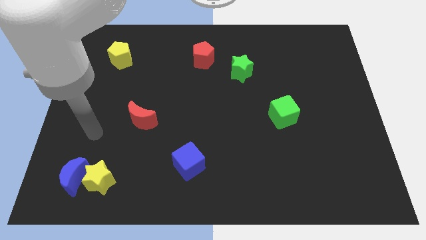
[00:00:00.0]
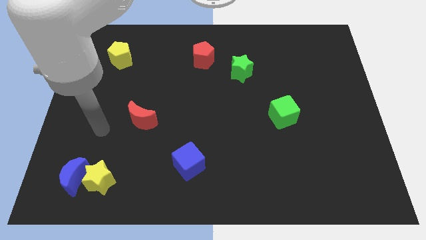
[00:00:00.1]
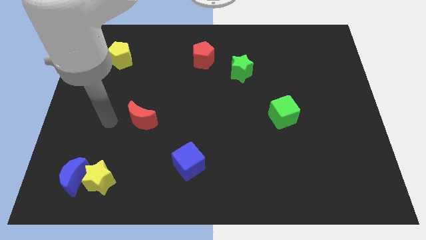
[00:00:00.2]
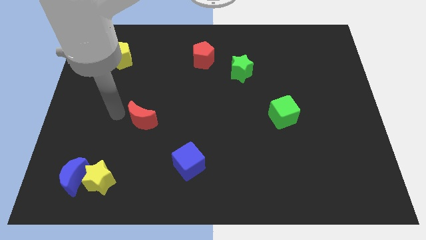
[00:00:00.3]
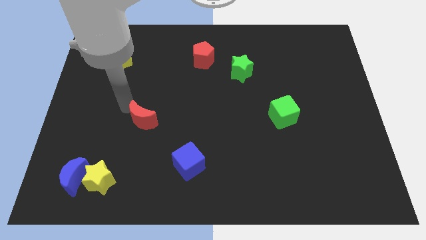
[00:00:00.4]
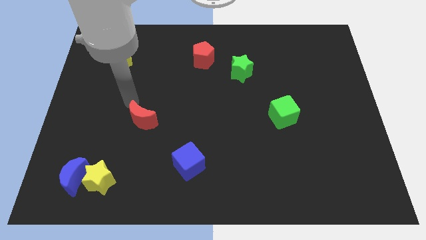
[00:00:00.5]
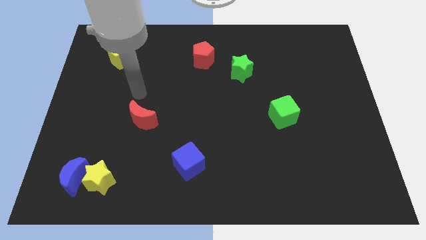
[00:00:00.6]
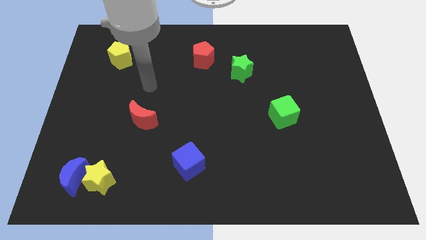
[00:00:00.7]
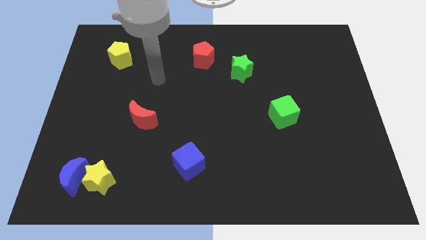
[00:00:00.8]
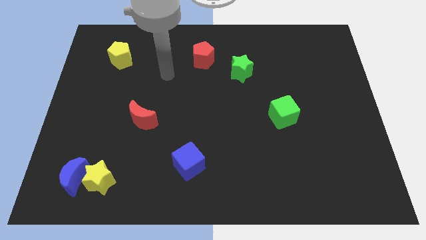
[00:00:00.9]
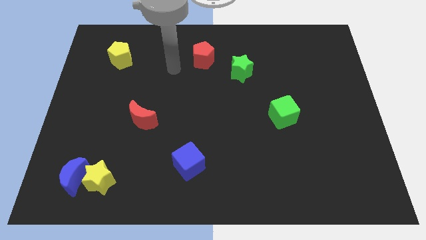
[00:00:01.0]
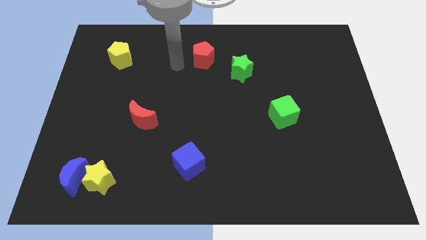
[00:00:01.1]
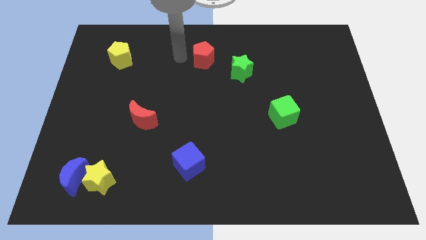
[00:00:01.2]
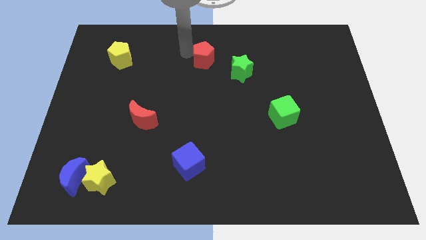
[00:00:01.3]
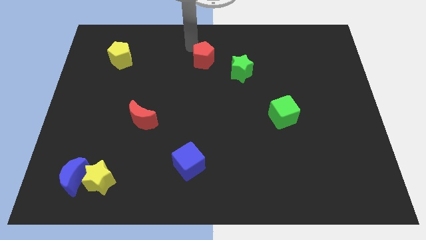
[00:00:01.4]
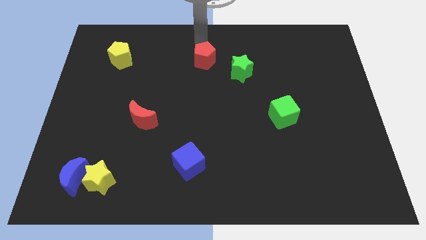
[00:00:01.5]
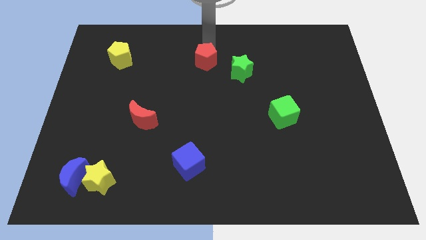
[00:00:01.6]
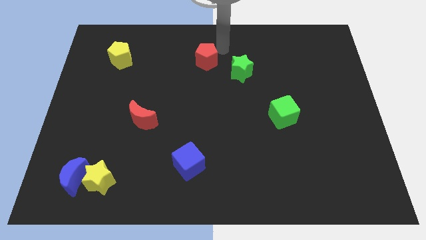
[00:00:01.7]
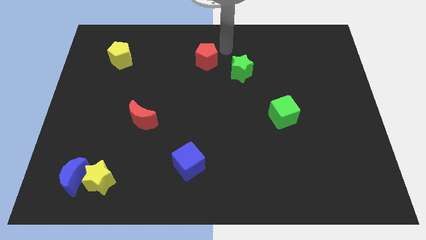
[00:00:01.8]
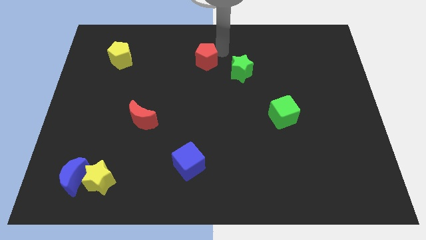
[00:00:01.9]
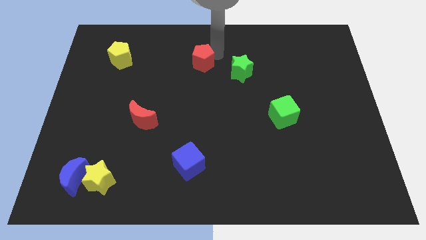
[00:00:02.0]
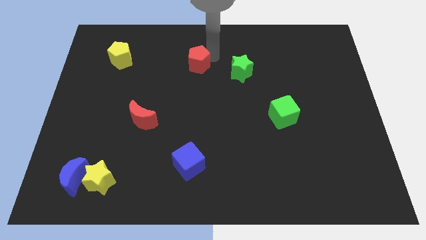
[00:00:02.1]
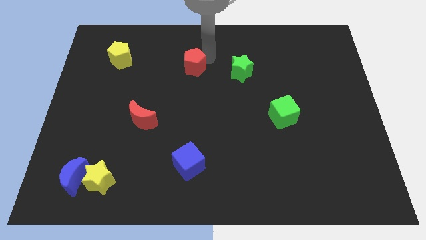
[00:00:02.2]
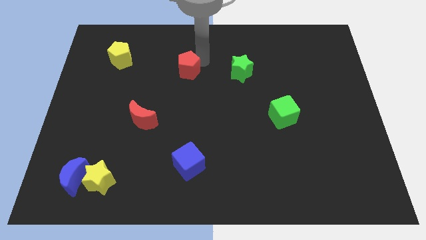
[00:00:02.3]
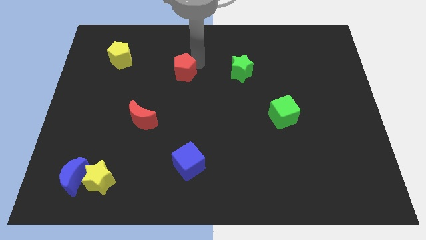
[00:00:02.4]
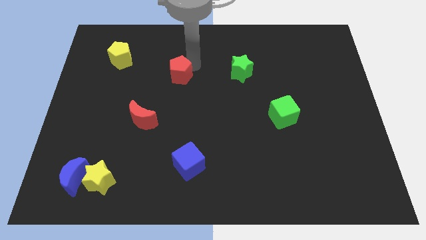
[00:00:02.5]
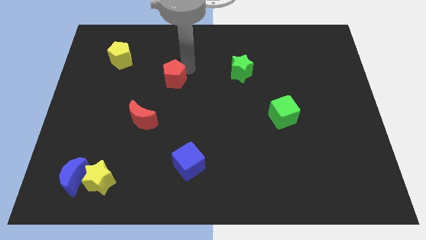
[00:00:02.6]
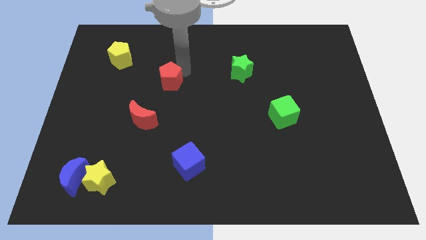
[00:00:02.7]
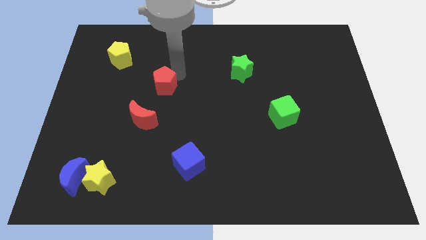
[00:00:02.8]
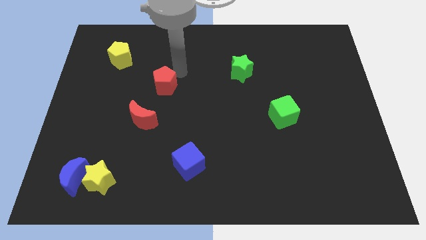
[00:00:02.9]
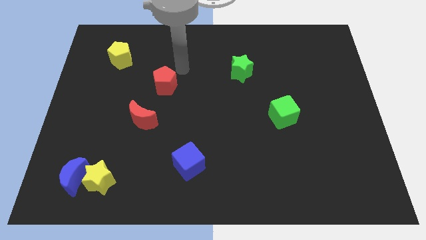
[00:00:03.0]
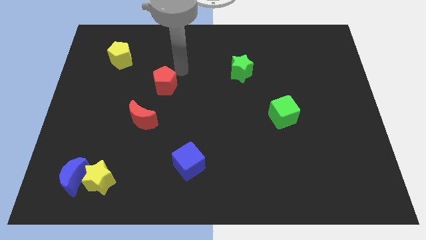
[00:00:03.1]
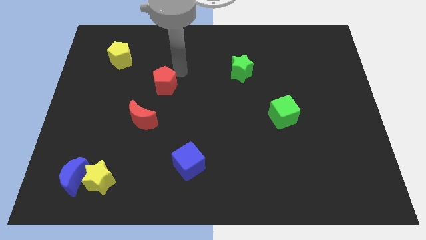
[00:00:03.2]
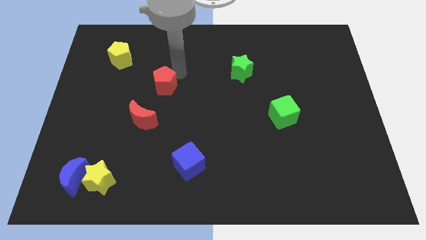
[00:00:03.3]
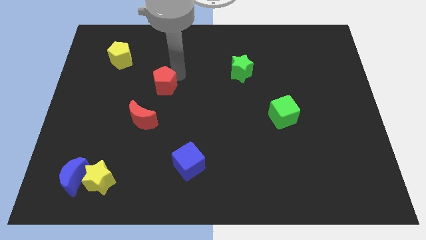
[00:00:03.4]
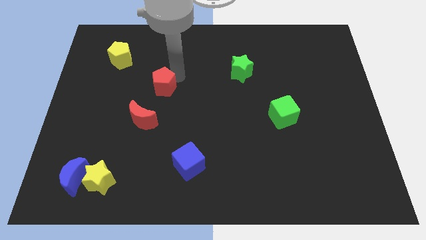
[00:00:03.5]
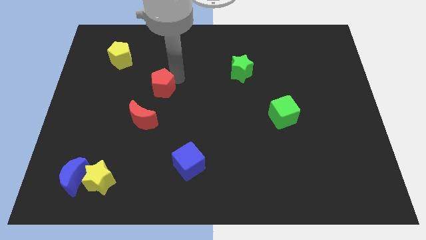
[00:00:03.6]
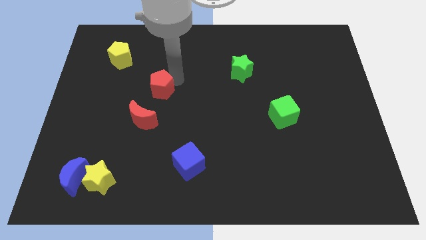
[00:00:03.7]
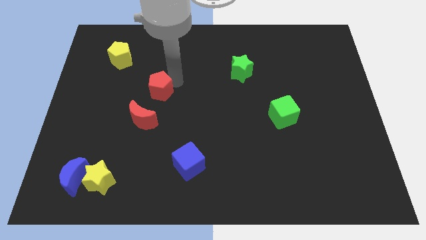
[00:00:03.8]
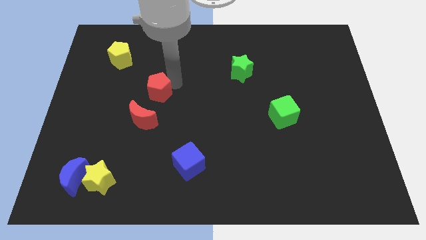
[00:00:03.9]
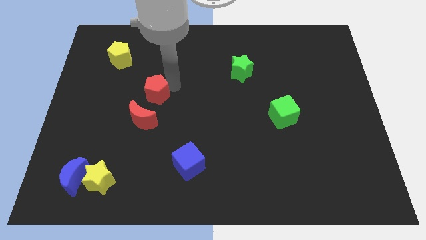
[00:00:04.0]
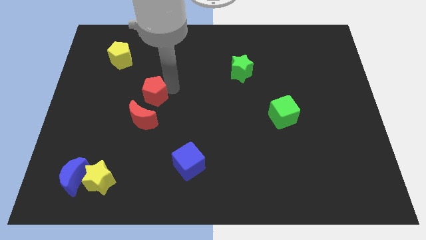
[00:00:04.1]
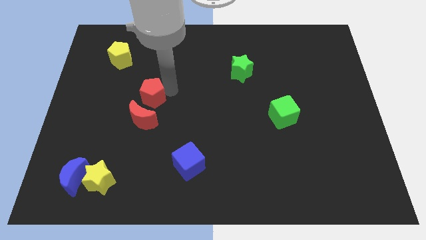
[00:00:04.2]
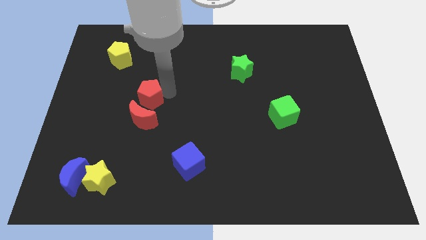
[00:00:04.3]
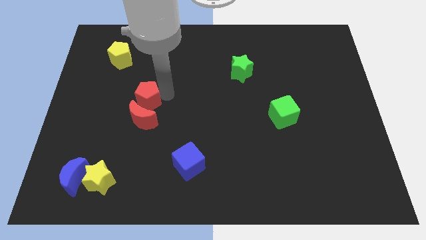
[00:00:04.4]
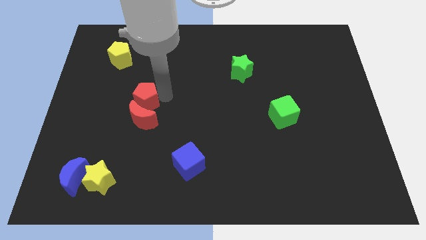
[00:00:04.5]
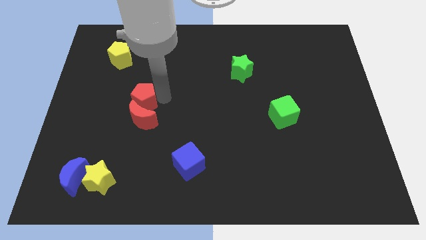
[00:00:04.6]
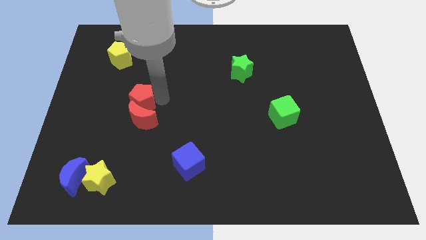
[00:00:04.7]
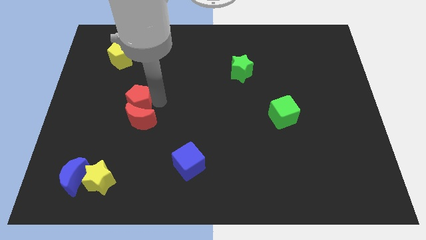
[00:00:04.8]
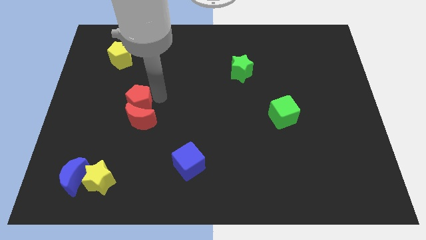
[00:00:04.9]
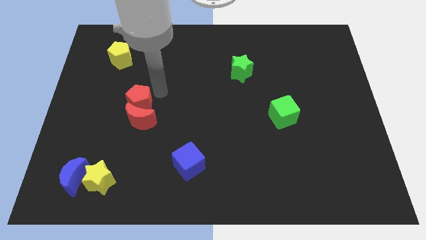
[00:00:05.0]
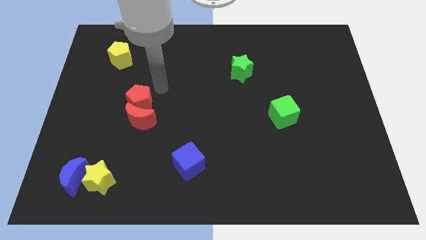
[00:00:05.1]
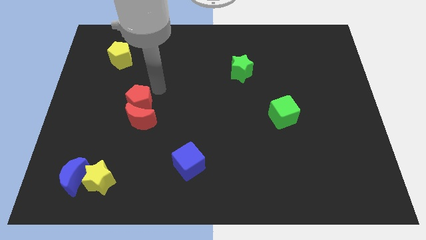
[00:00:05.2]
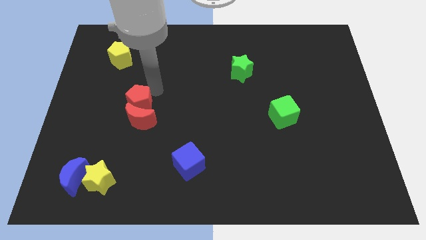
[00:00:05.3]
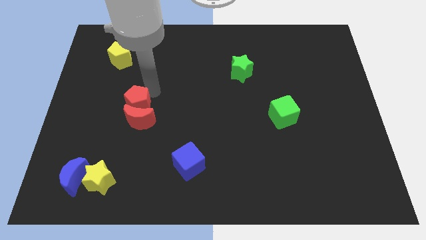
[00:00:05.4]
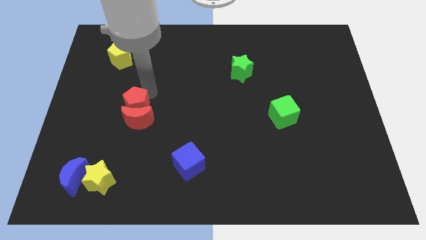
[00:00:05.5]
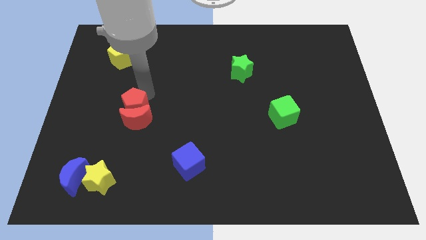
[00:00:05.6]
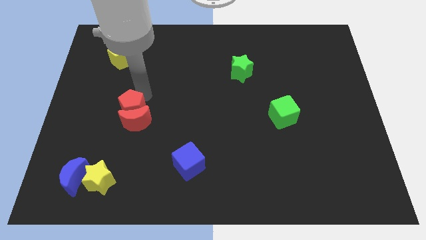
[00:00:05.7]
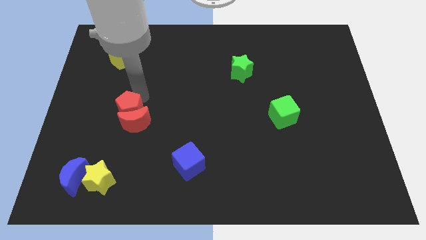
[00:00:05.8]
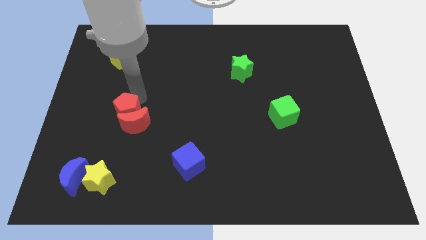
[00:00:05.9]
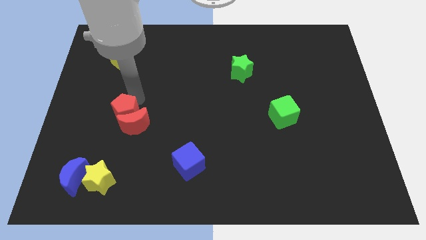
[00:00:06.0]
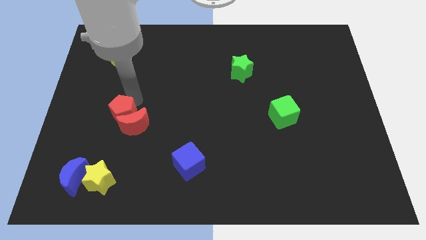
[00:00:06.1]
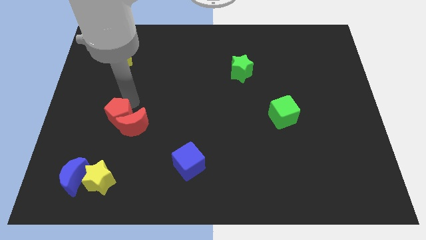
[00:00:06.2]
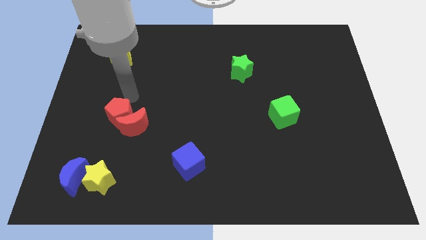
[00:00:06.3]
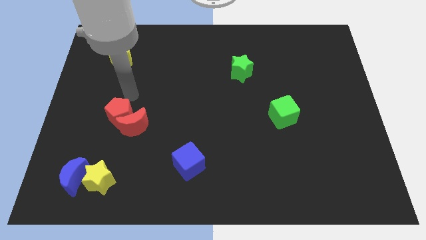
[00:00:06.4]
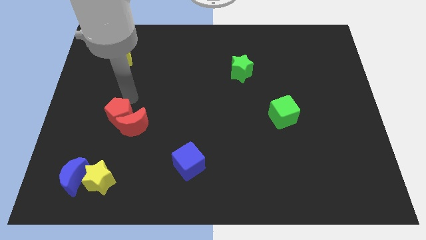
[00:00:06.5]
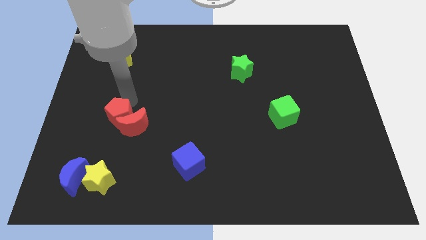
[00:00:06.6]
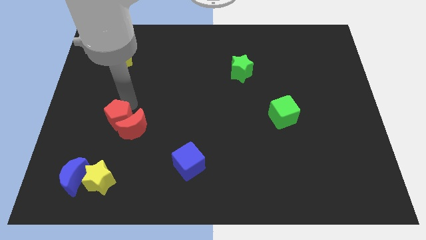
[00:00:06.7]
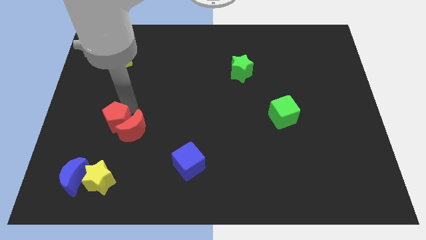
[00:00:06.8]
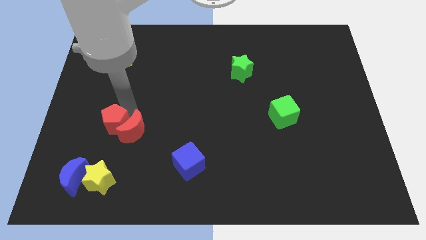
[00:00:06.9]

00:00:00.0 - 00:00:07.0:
move the red pentagon to the bottom left of the red moon

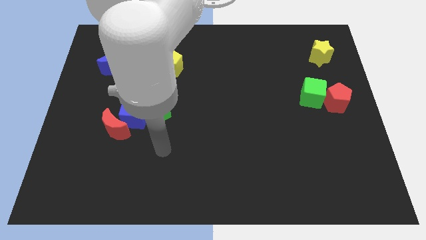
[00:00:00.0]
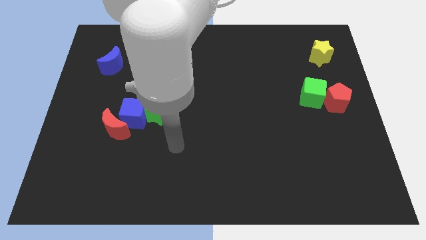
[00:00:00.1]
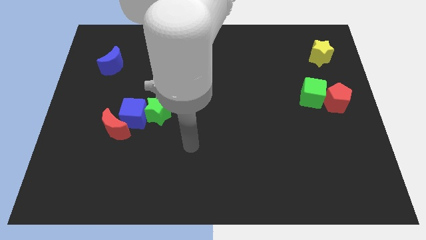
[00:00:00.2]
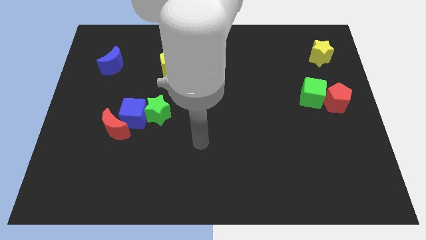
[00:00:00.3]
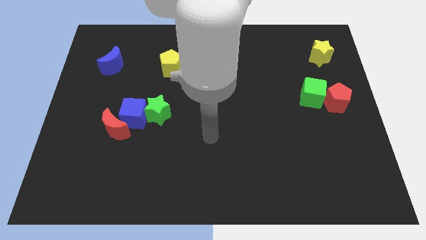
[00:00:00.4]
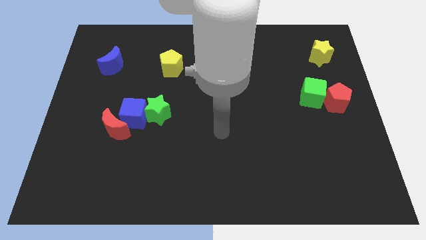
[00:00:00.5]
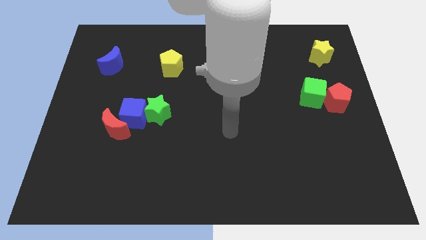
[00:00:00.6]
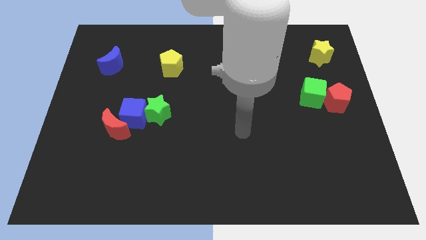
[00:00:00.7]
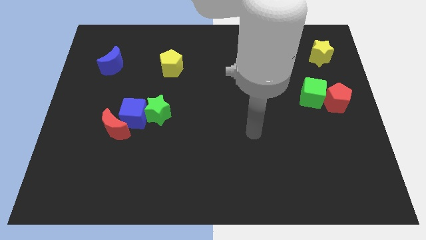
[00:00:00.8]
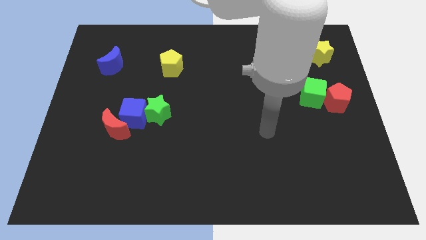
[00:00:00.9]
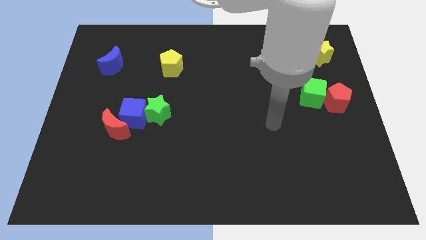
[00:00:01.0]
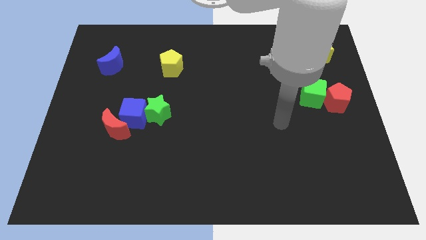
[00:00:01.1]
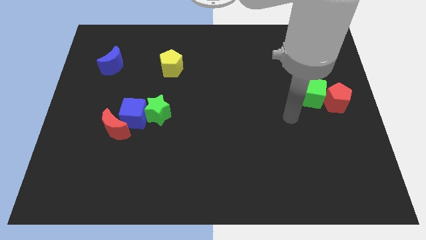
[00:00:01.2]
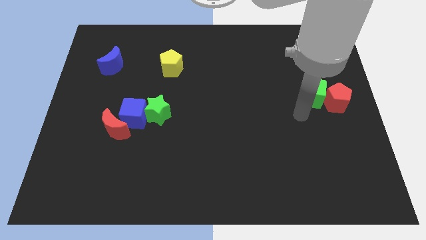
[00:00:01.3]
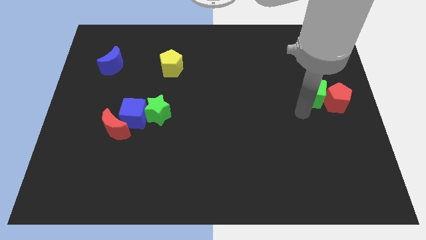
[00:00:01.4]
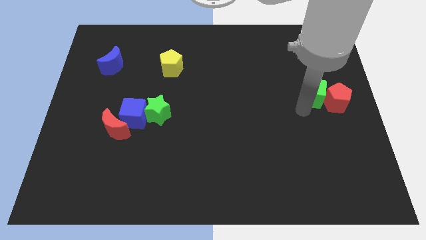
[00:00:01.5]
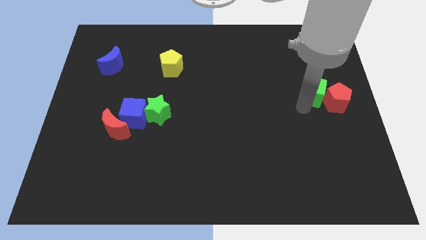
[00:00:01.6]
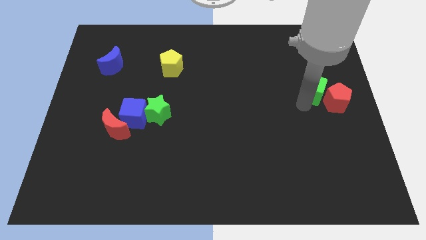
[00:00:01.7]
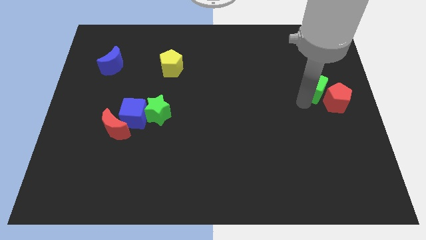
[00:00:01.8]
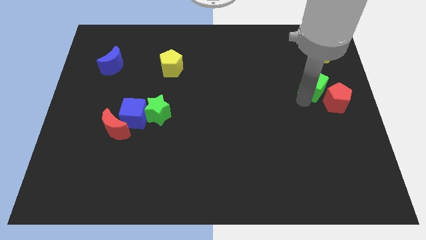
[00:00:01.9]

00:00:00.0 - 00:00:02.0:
slide the green cube to the top of the red pentagon
